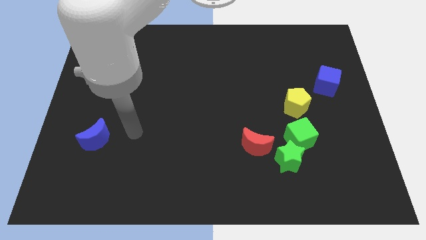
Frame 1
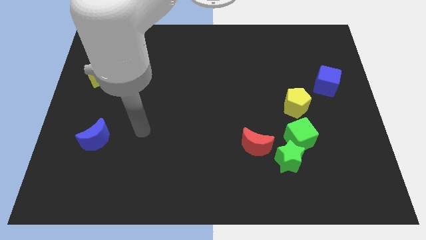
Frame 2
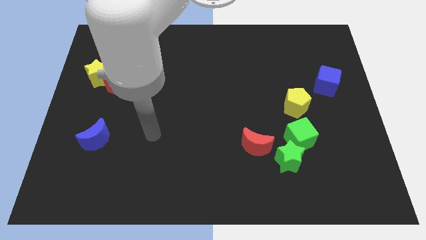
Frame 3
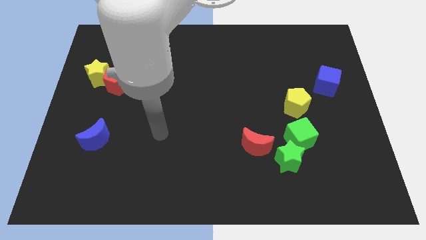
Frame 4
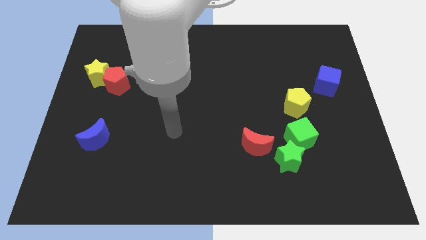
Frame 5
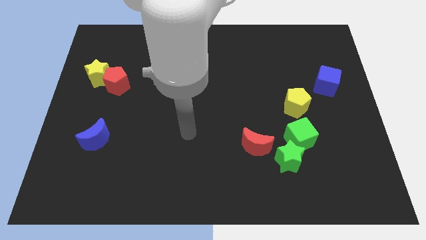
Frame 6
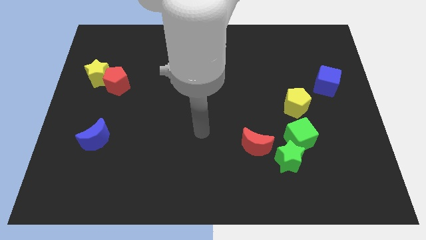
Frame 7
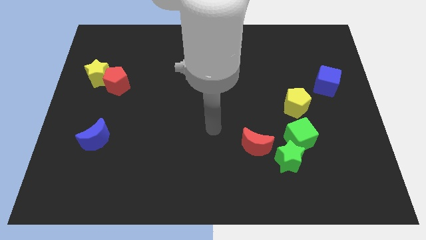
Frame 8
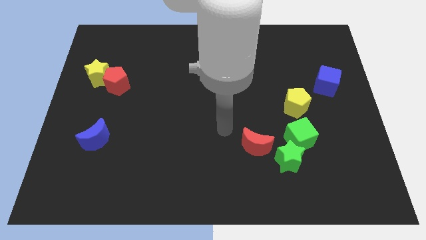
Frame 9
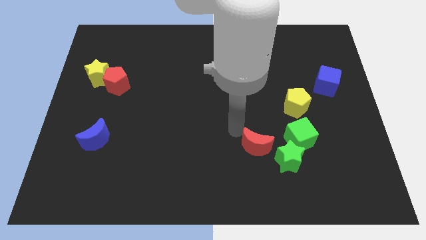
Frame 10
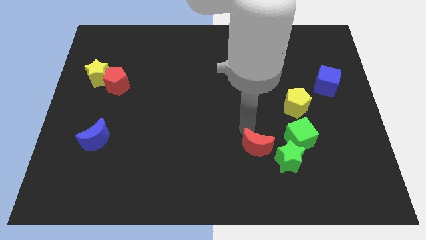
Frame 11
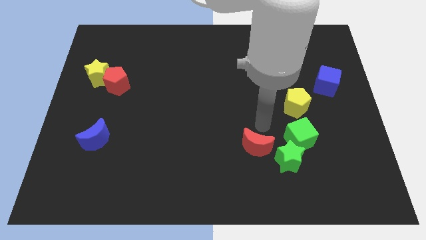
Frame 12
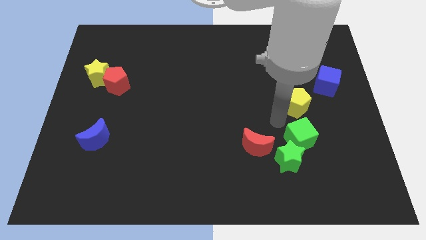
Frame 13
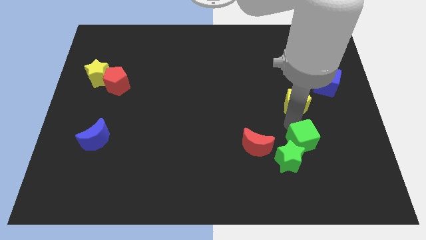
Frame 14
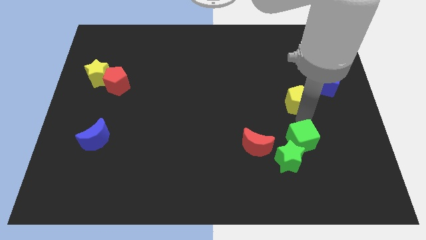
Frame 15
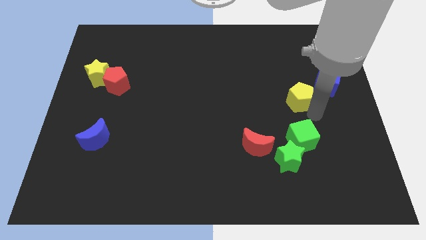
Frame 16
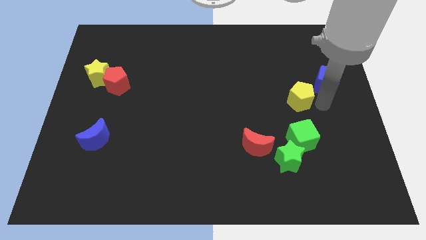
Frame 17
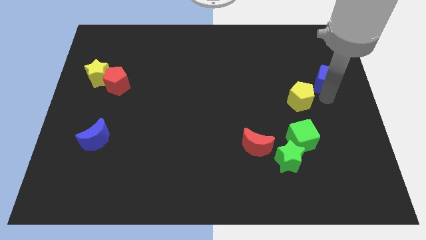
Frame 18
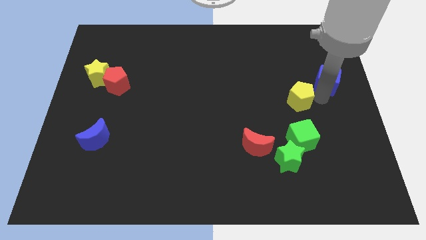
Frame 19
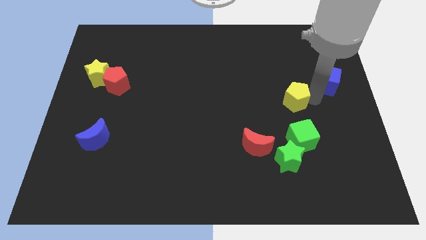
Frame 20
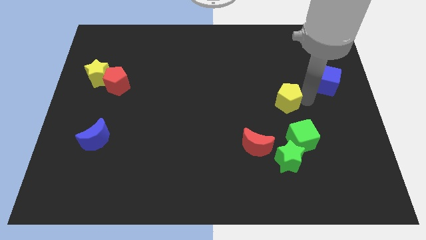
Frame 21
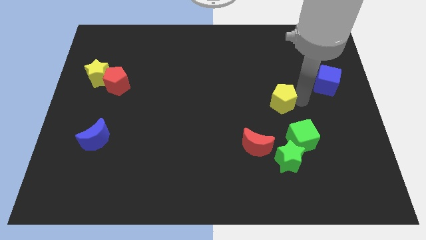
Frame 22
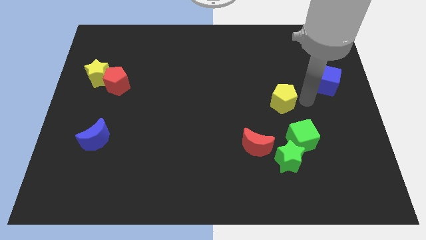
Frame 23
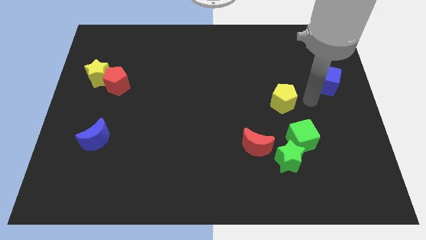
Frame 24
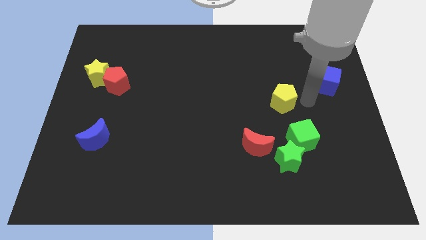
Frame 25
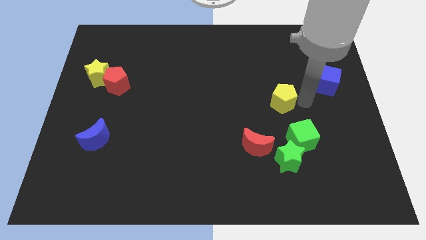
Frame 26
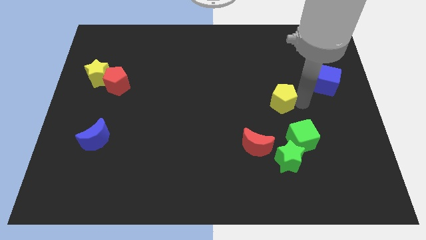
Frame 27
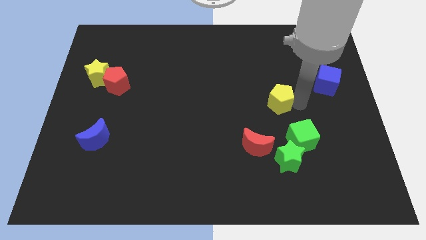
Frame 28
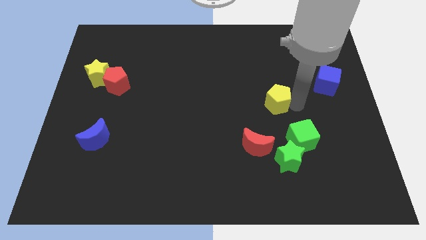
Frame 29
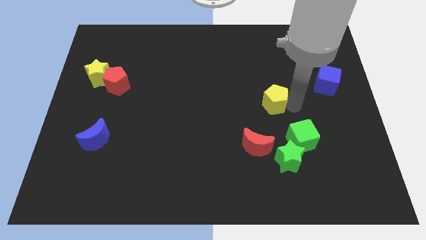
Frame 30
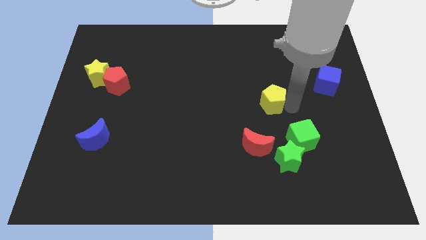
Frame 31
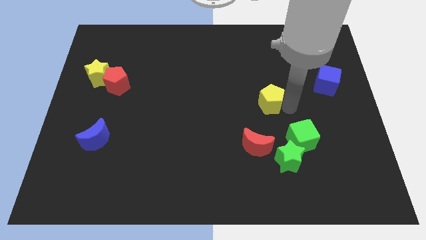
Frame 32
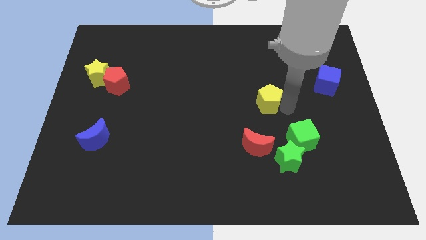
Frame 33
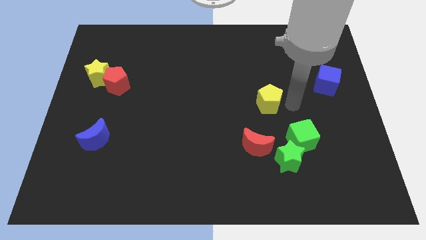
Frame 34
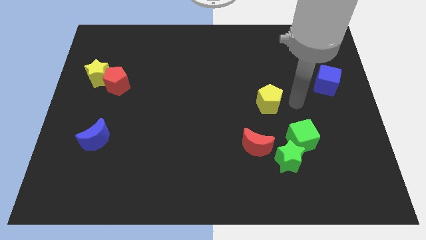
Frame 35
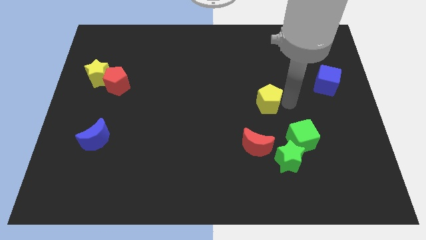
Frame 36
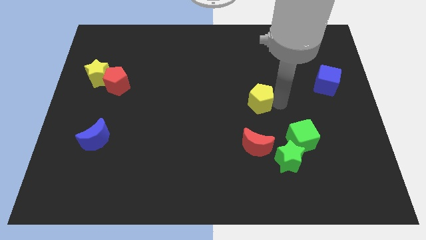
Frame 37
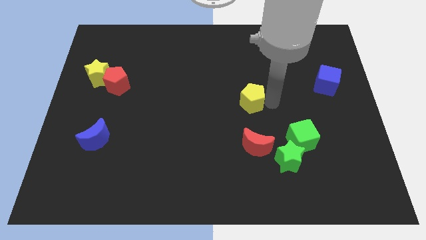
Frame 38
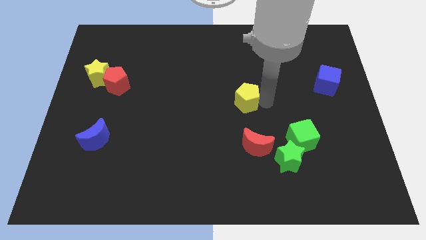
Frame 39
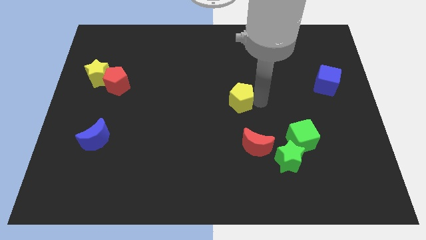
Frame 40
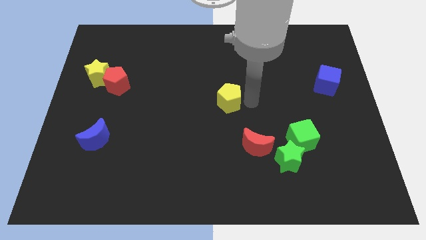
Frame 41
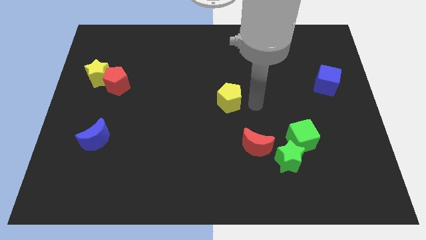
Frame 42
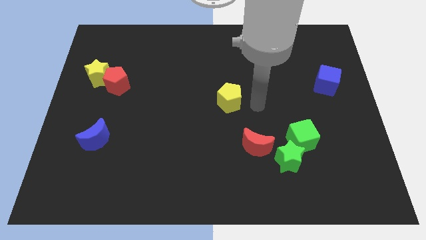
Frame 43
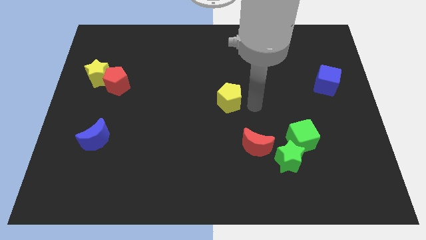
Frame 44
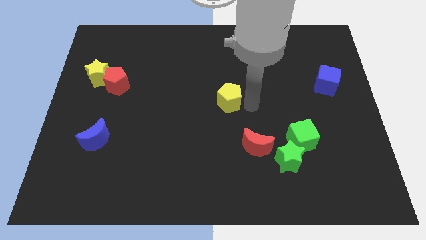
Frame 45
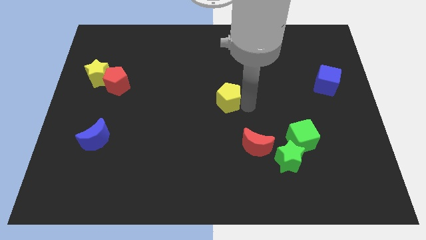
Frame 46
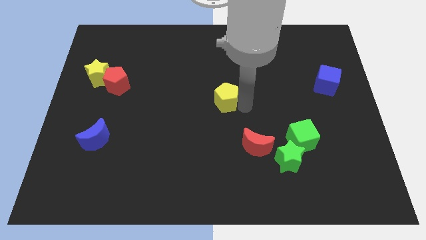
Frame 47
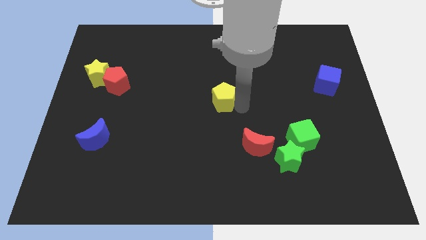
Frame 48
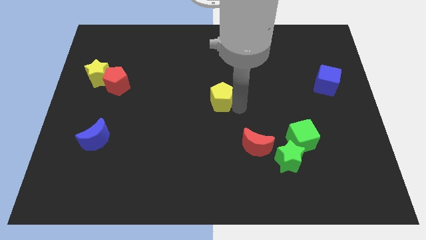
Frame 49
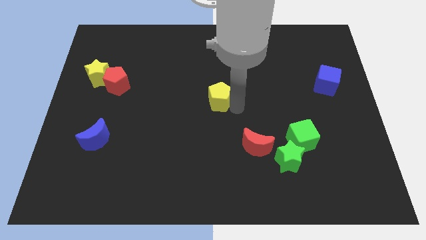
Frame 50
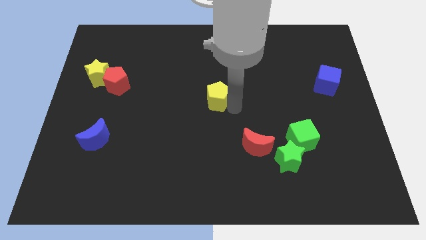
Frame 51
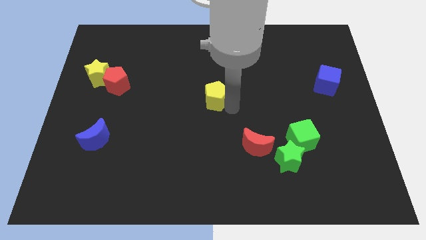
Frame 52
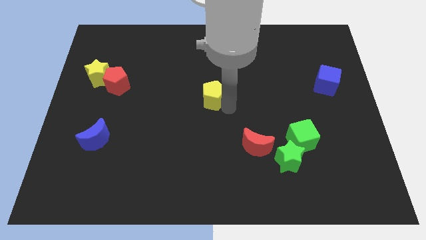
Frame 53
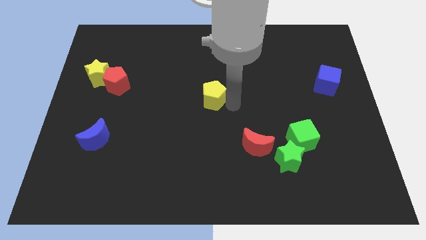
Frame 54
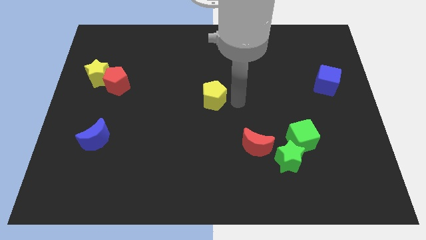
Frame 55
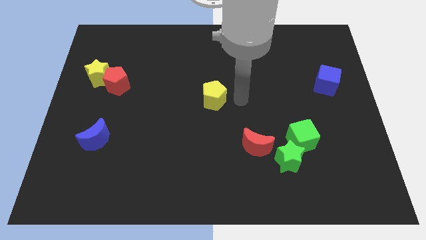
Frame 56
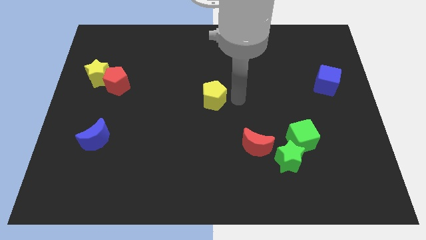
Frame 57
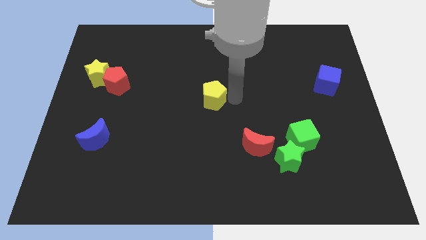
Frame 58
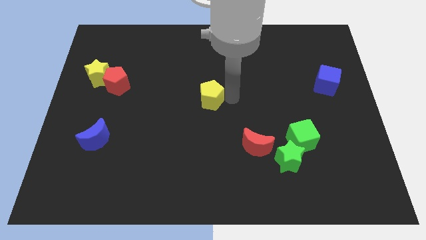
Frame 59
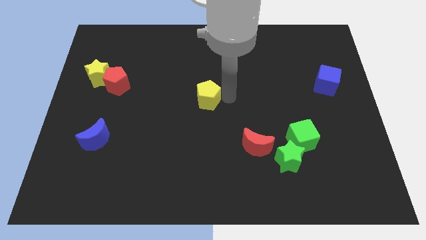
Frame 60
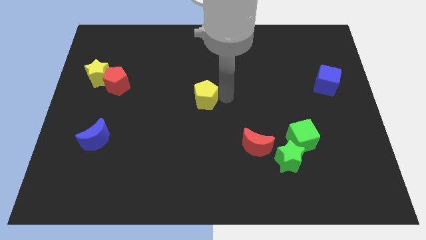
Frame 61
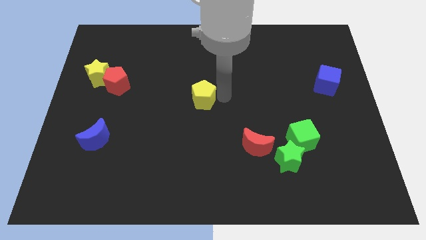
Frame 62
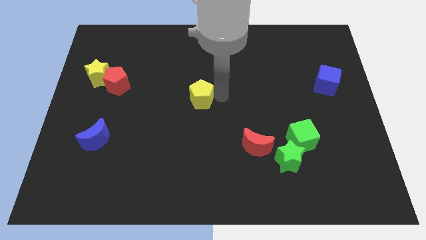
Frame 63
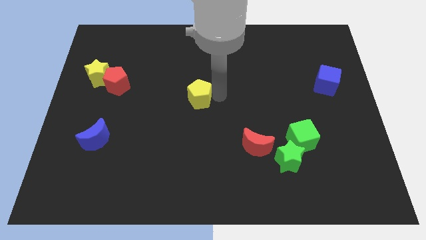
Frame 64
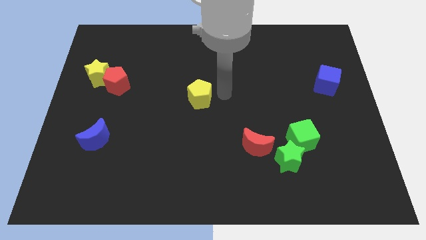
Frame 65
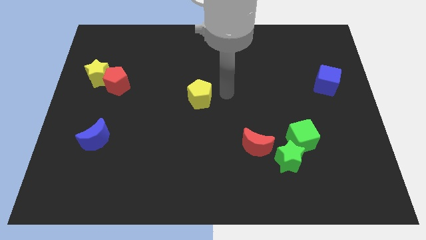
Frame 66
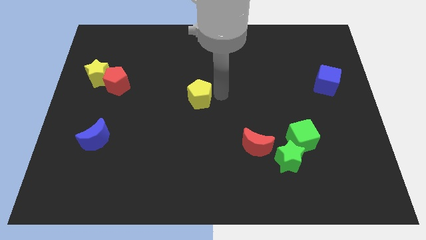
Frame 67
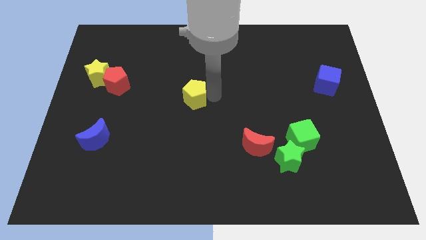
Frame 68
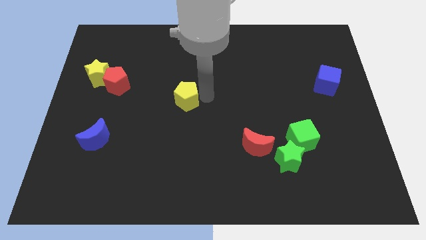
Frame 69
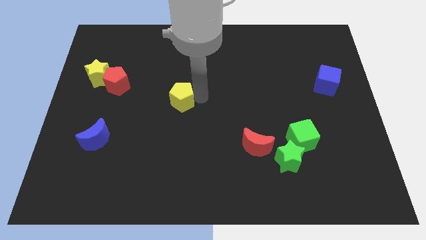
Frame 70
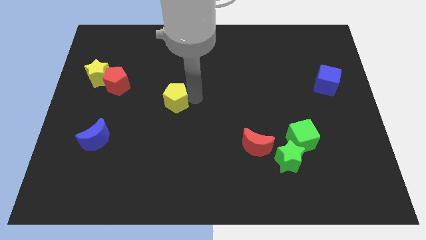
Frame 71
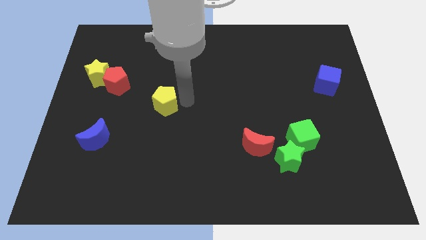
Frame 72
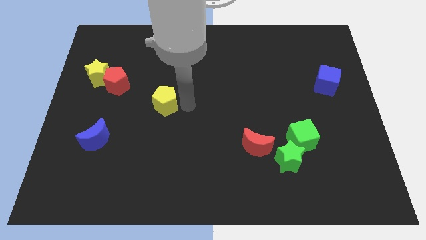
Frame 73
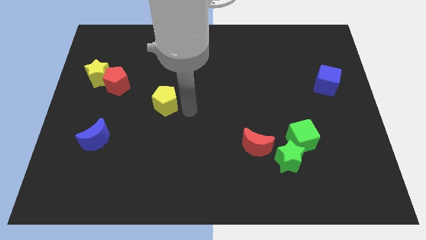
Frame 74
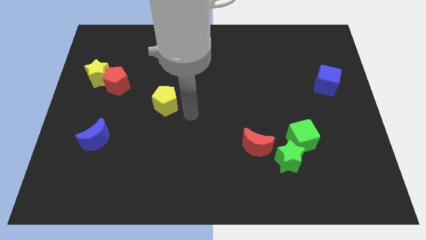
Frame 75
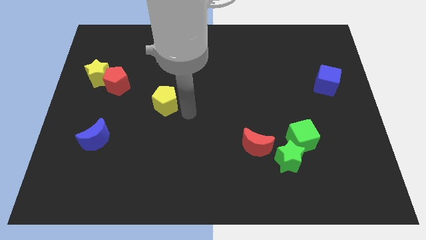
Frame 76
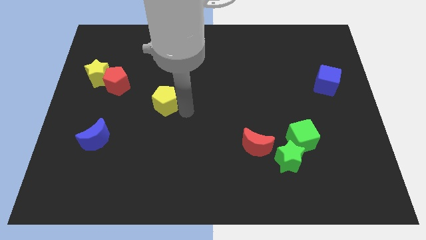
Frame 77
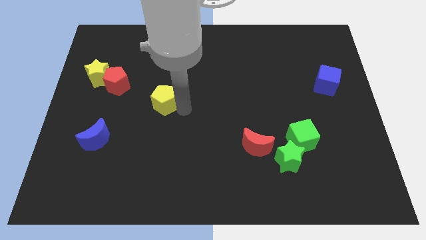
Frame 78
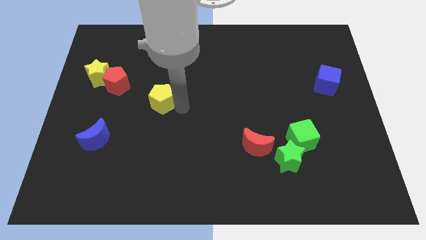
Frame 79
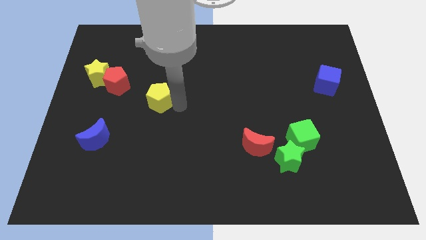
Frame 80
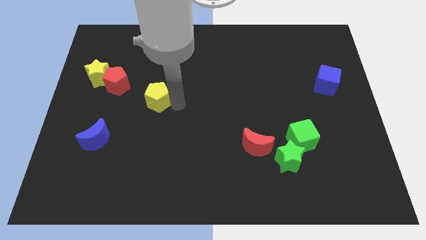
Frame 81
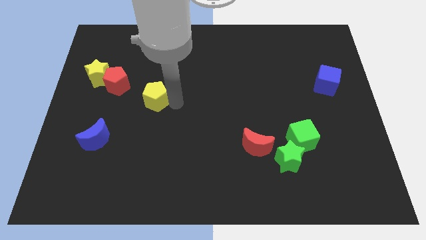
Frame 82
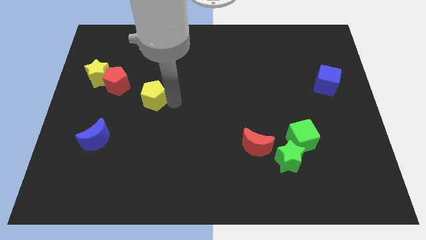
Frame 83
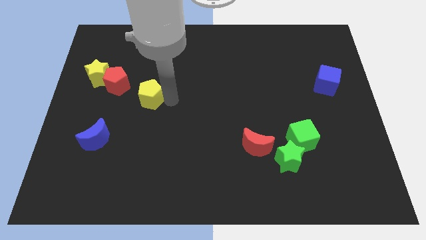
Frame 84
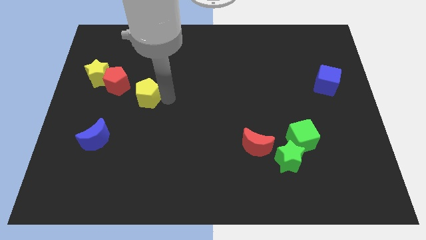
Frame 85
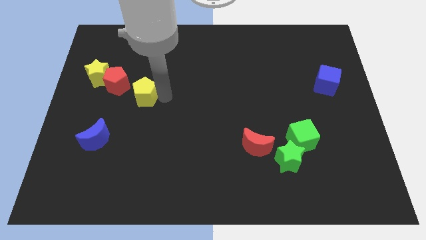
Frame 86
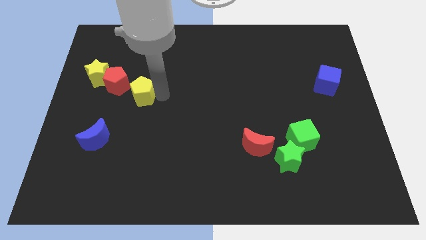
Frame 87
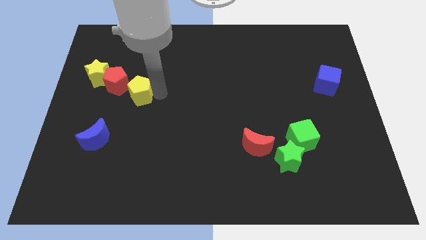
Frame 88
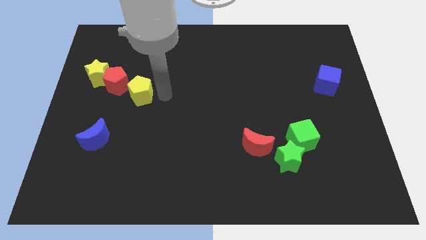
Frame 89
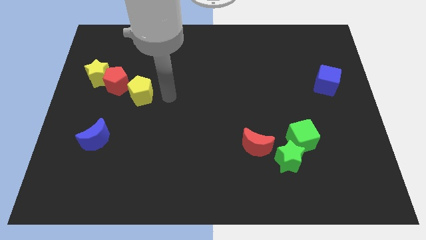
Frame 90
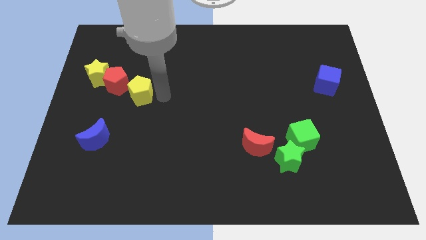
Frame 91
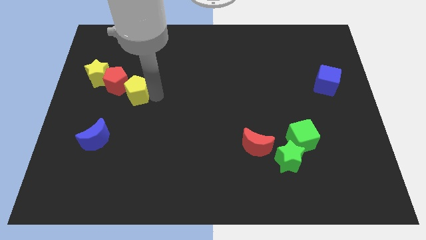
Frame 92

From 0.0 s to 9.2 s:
move the yellow pentagon diagonally down and to the right of the yellow star
